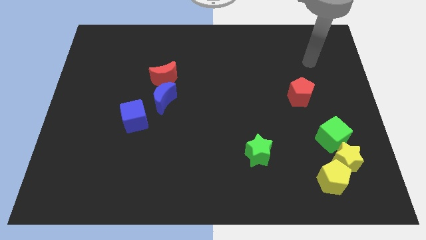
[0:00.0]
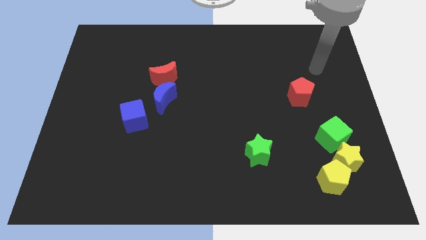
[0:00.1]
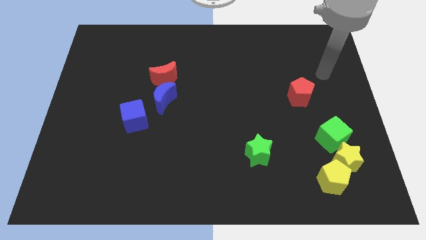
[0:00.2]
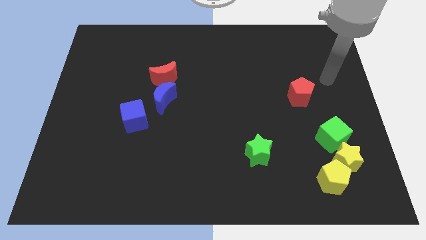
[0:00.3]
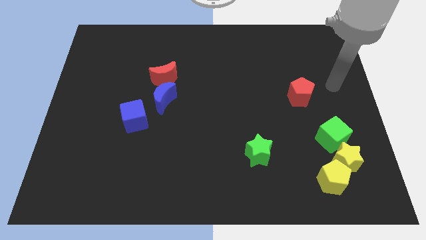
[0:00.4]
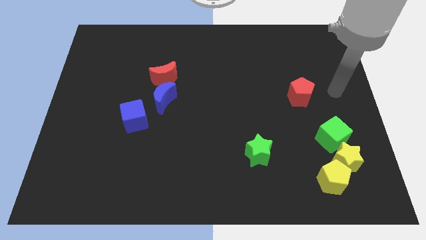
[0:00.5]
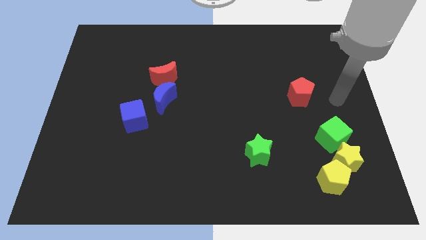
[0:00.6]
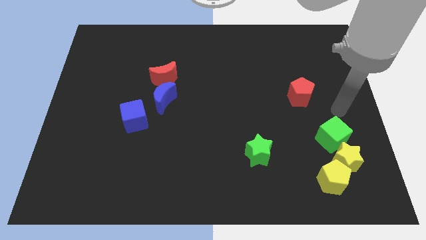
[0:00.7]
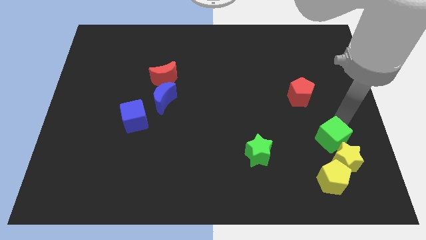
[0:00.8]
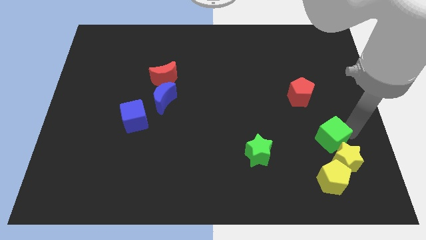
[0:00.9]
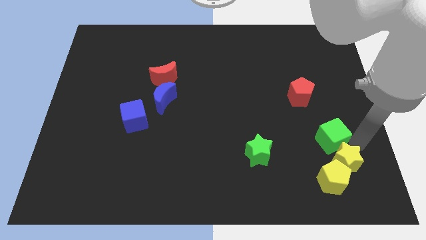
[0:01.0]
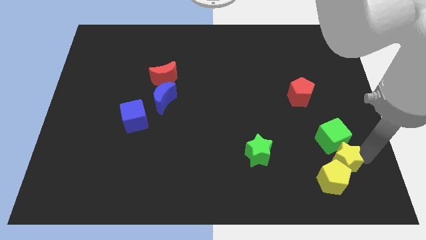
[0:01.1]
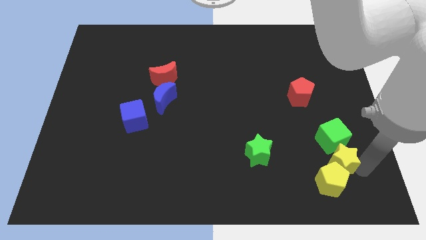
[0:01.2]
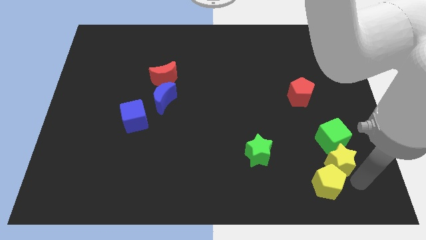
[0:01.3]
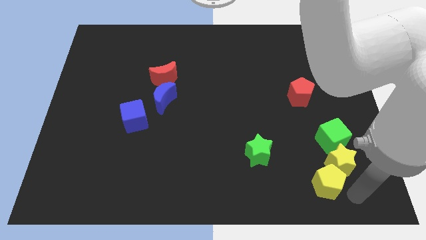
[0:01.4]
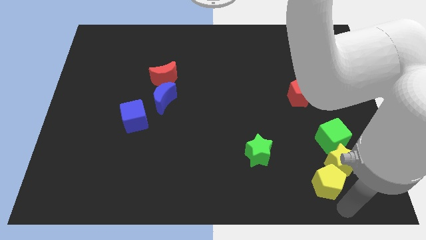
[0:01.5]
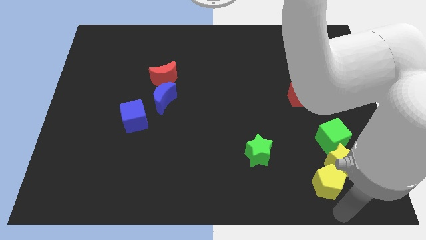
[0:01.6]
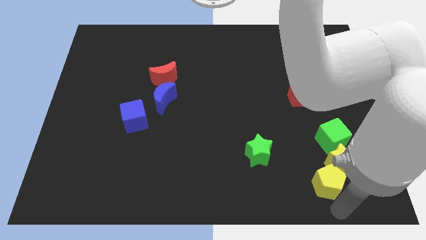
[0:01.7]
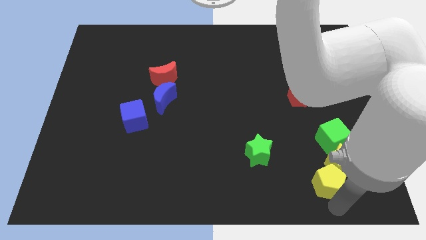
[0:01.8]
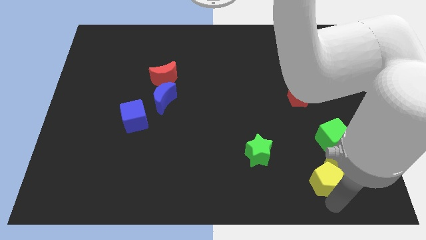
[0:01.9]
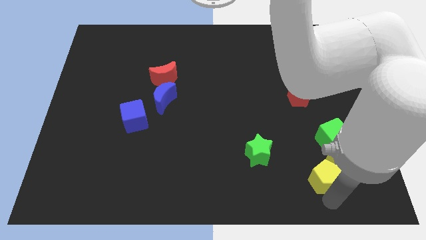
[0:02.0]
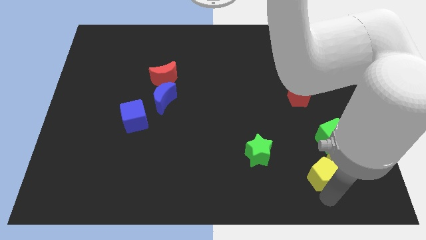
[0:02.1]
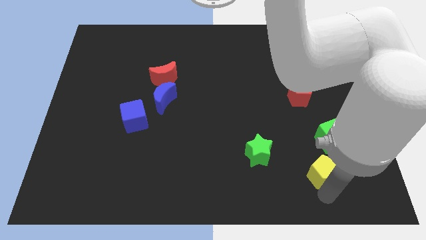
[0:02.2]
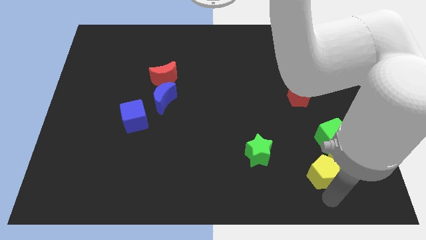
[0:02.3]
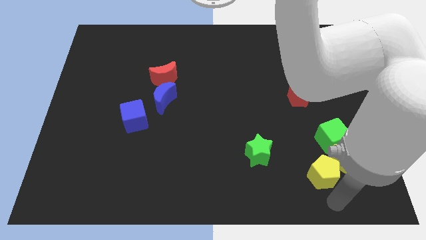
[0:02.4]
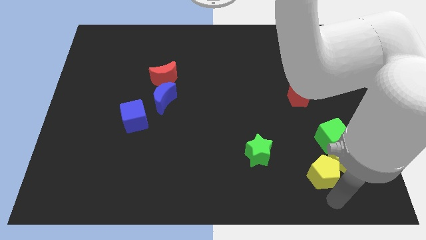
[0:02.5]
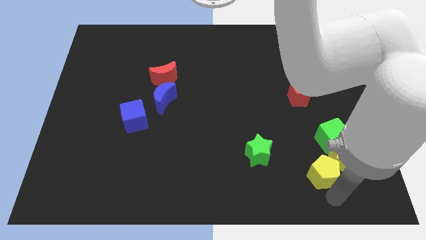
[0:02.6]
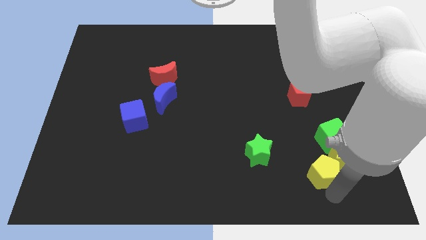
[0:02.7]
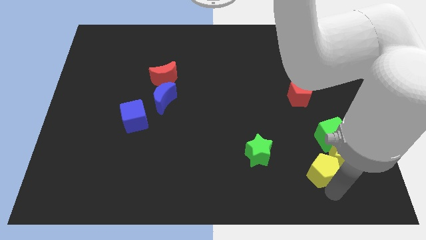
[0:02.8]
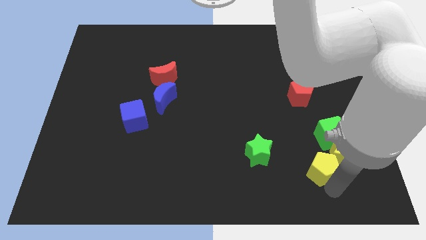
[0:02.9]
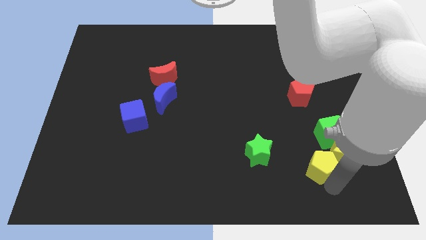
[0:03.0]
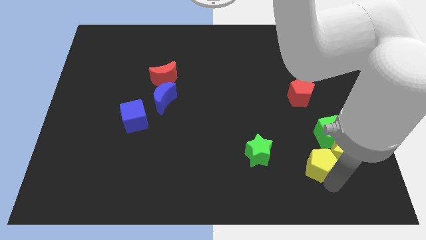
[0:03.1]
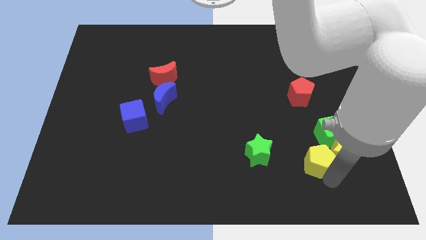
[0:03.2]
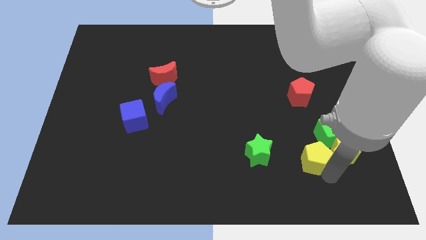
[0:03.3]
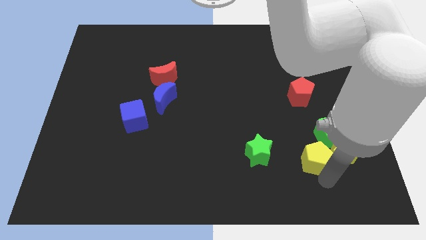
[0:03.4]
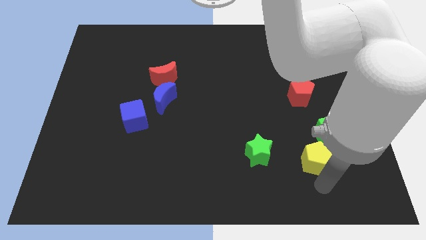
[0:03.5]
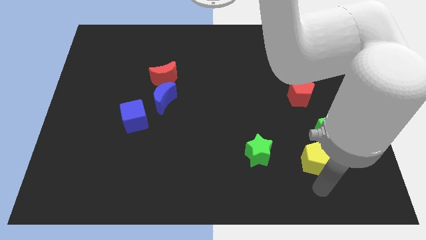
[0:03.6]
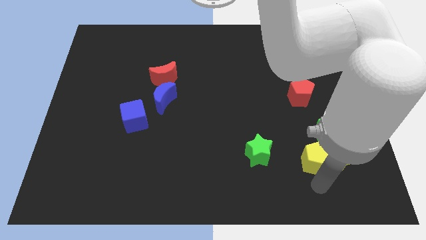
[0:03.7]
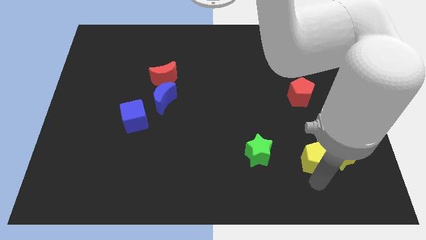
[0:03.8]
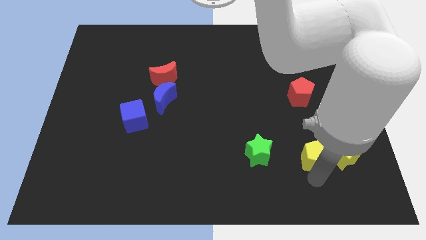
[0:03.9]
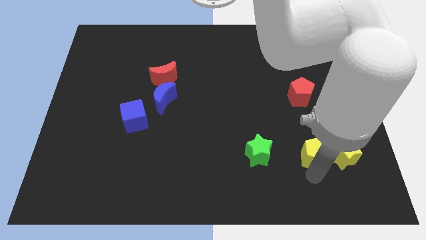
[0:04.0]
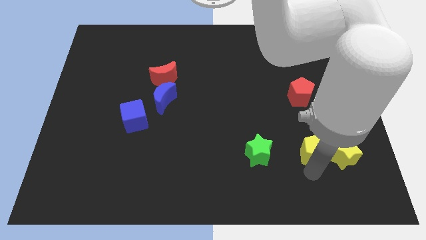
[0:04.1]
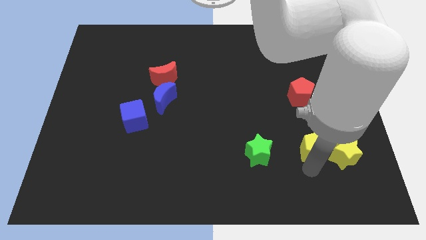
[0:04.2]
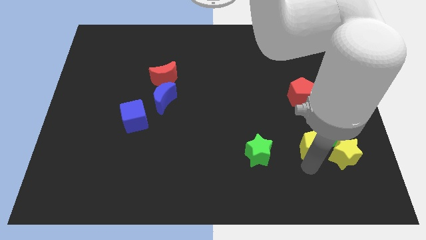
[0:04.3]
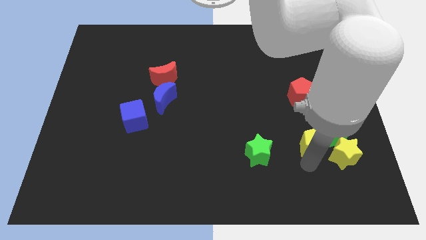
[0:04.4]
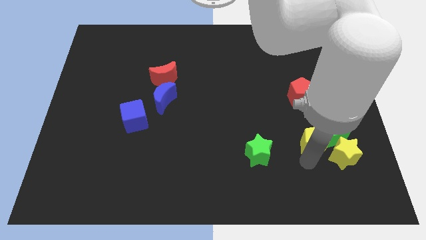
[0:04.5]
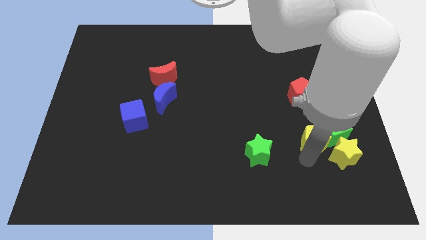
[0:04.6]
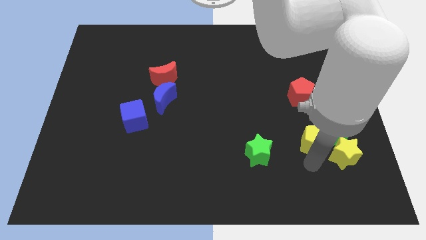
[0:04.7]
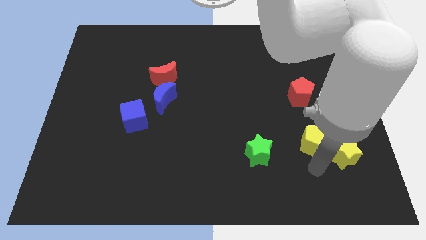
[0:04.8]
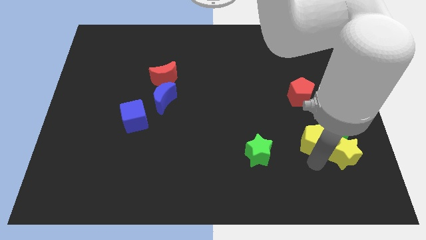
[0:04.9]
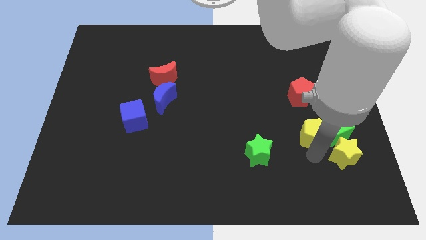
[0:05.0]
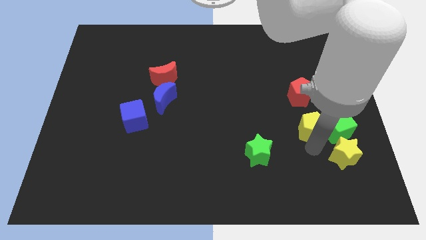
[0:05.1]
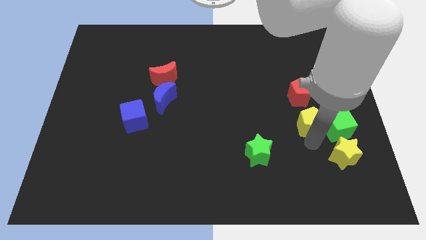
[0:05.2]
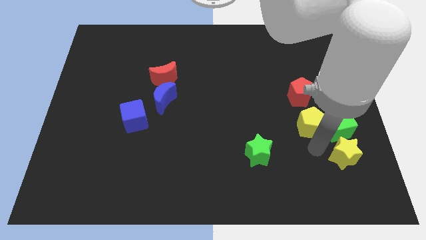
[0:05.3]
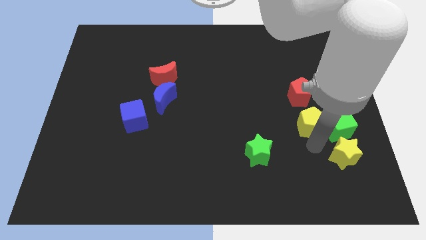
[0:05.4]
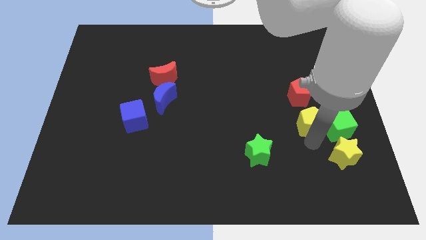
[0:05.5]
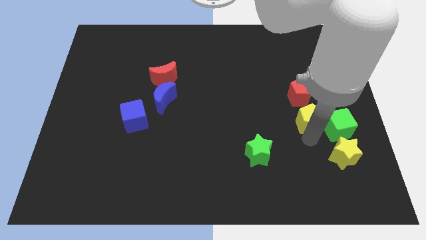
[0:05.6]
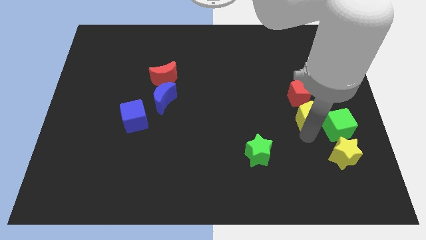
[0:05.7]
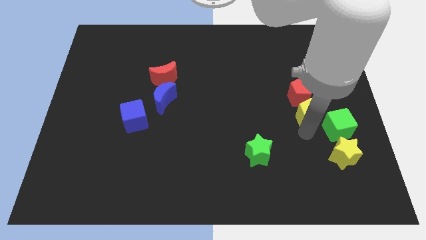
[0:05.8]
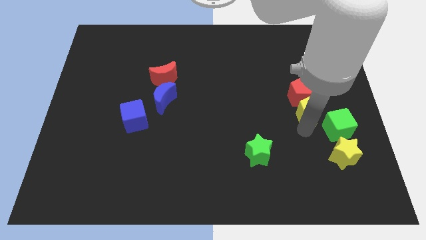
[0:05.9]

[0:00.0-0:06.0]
move the yellow pentagon towards the red pentagon

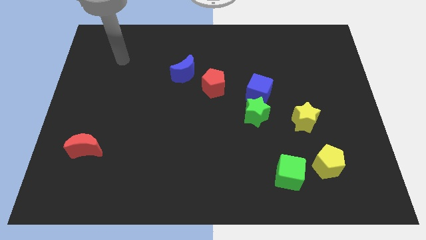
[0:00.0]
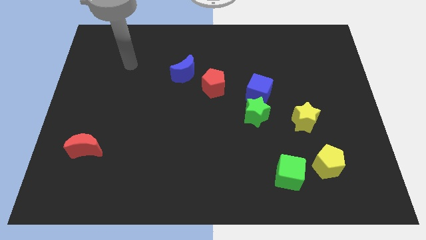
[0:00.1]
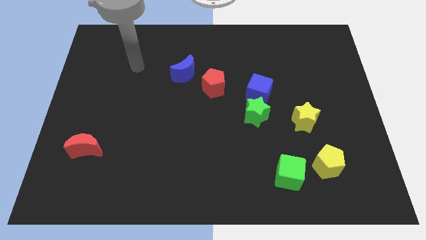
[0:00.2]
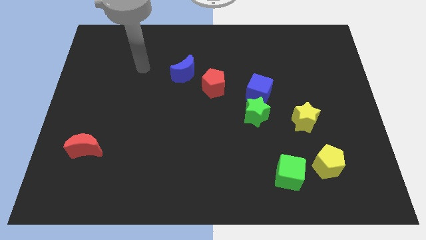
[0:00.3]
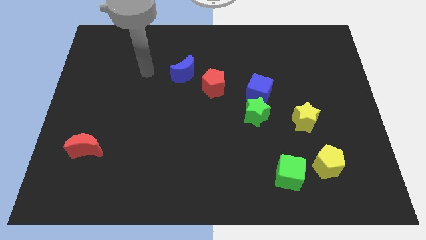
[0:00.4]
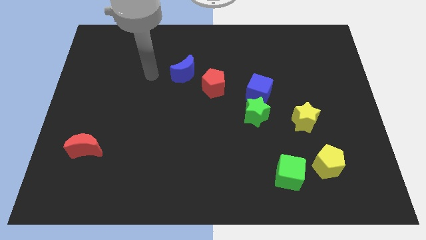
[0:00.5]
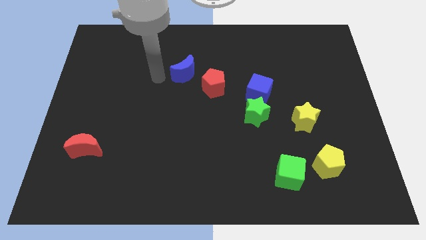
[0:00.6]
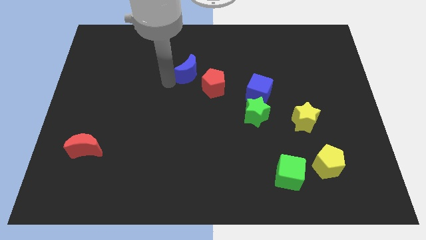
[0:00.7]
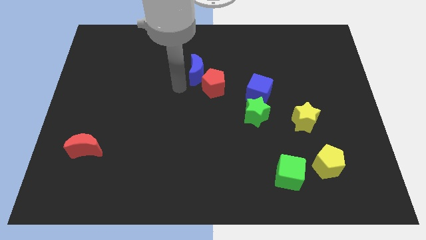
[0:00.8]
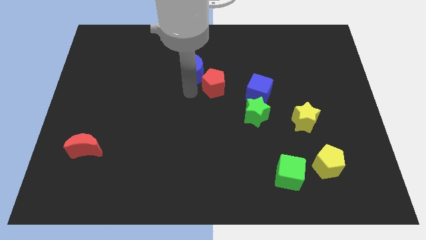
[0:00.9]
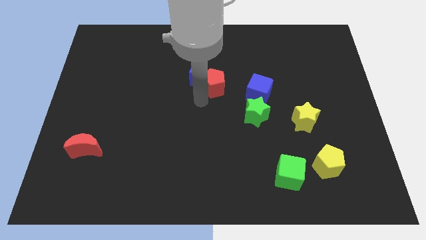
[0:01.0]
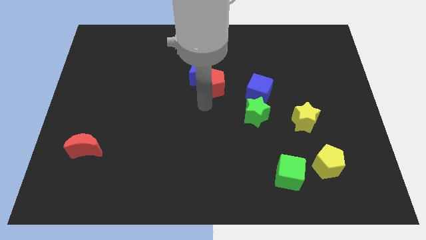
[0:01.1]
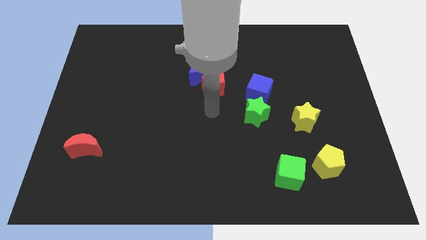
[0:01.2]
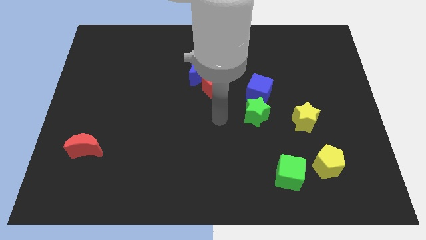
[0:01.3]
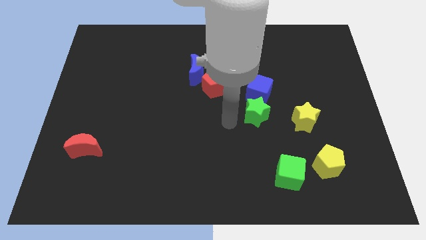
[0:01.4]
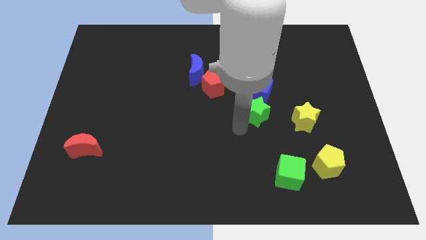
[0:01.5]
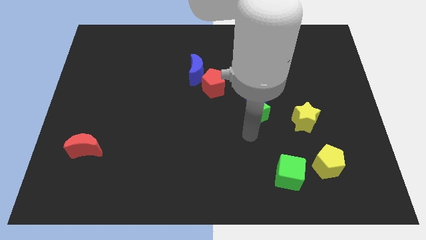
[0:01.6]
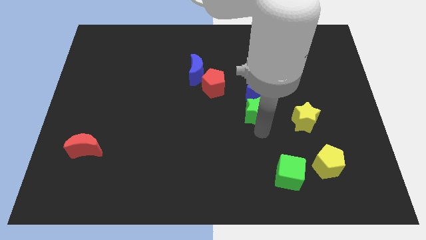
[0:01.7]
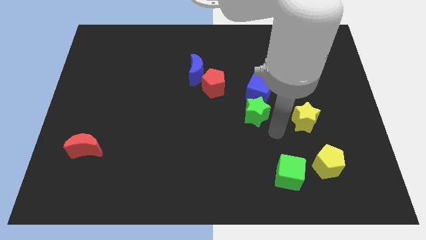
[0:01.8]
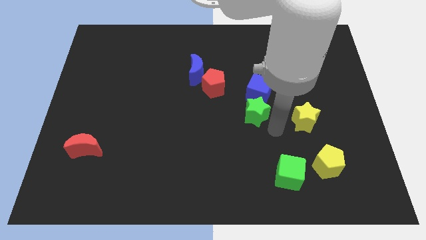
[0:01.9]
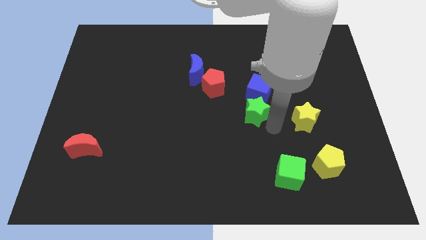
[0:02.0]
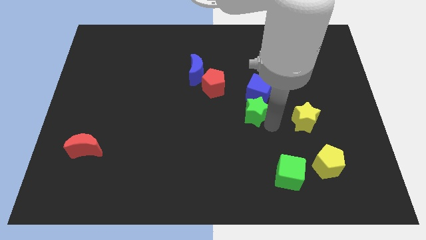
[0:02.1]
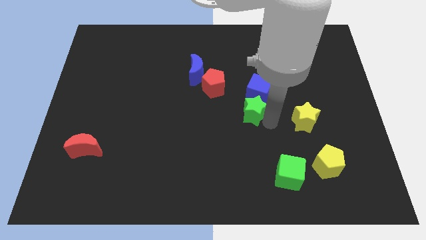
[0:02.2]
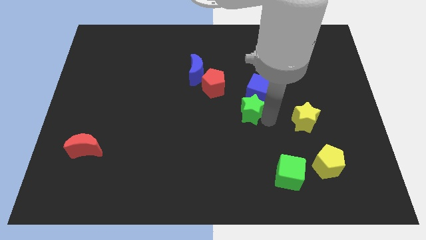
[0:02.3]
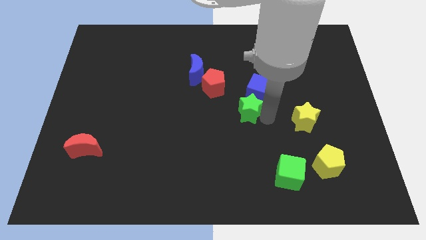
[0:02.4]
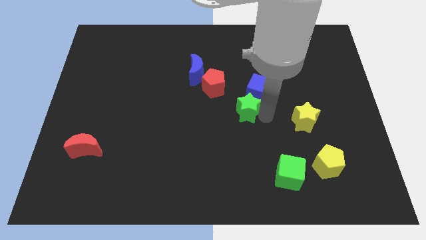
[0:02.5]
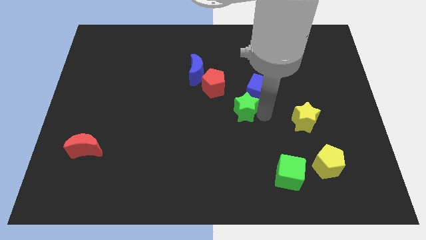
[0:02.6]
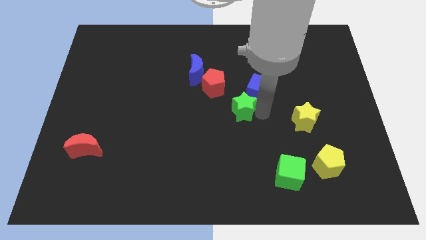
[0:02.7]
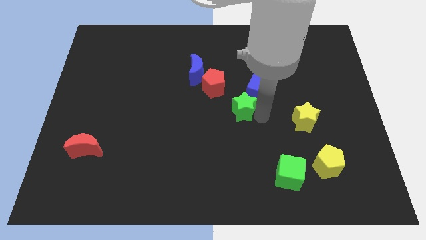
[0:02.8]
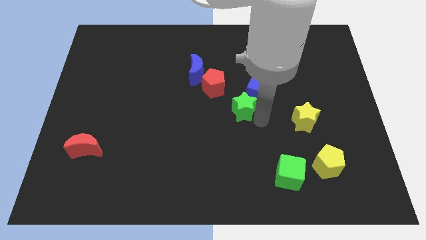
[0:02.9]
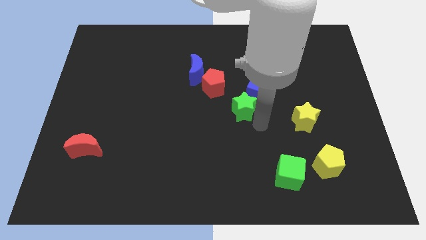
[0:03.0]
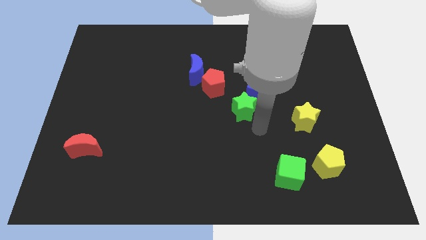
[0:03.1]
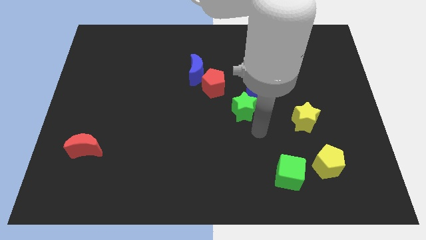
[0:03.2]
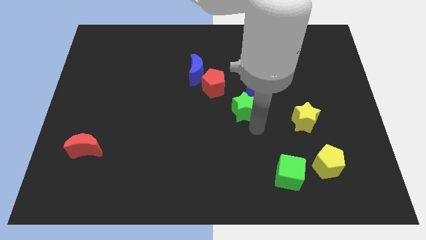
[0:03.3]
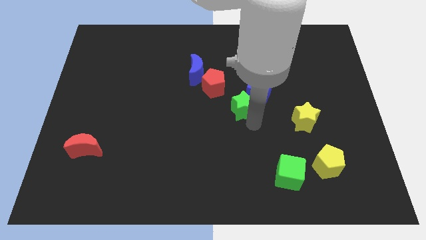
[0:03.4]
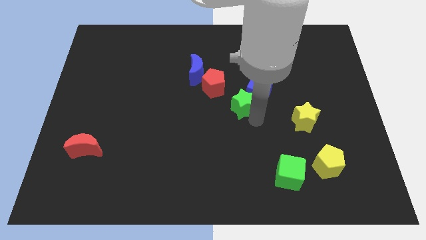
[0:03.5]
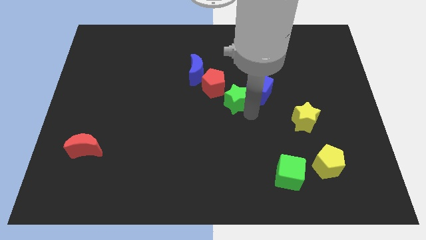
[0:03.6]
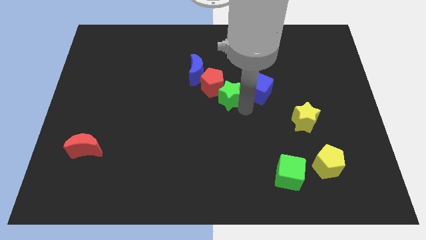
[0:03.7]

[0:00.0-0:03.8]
slide the green star towards the red pentagon
